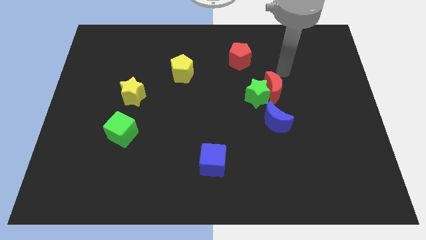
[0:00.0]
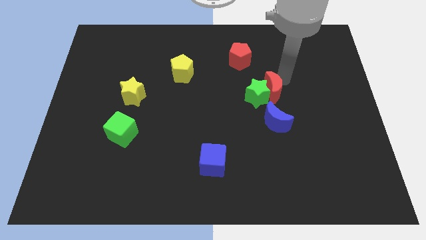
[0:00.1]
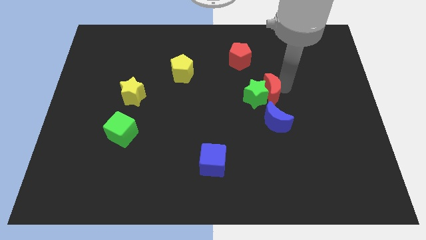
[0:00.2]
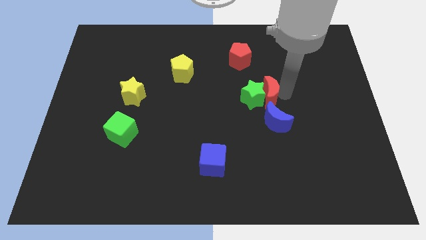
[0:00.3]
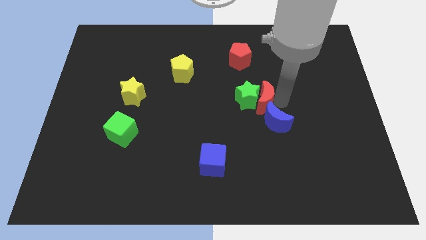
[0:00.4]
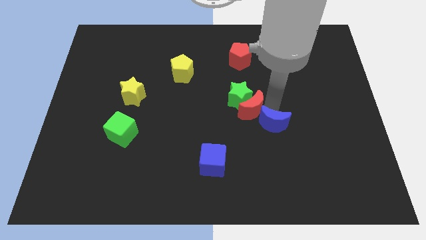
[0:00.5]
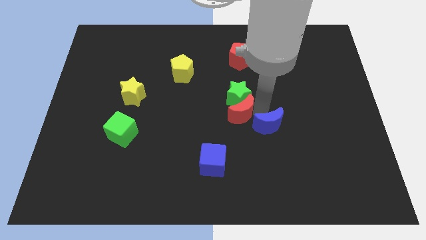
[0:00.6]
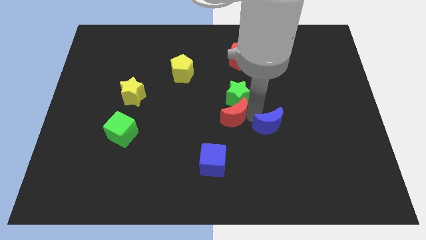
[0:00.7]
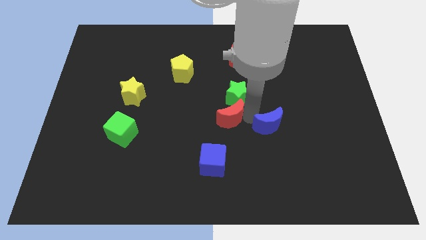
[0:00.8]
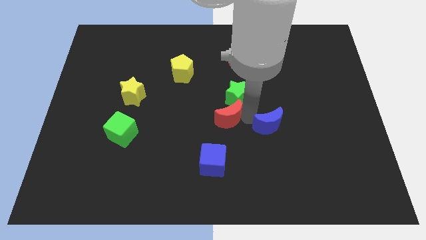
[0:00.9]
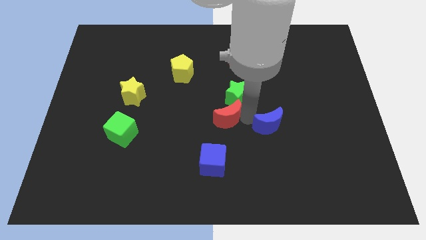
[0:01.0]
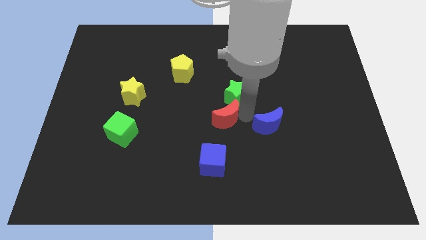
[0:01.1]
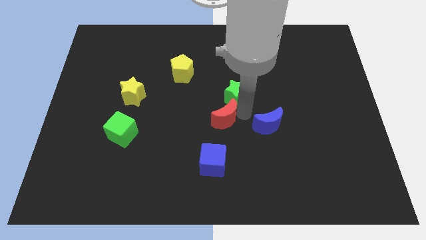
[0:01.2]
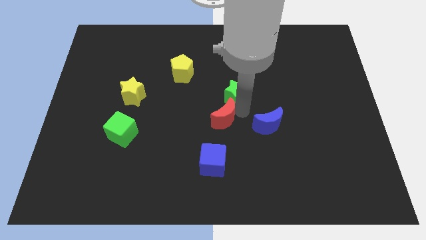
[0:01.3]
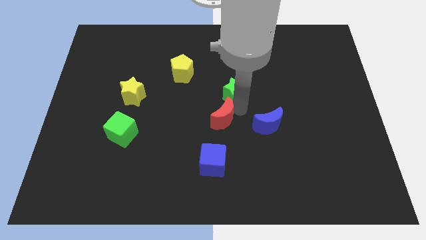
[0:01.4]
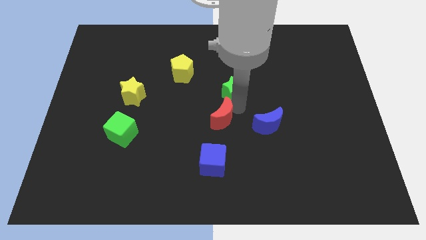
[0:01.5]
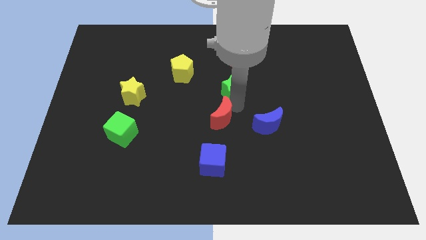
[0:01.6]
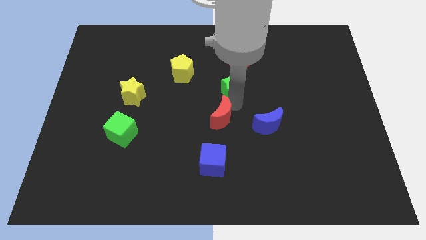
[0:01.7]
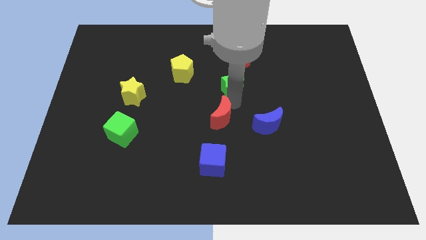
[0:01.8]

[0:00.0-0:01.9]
pull the green star apart from the red moon and blue moon

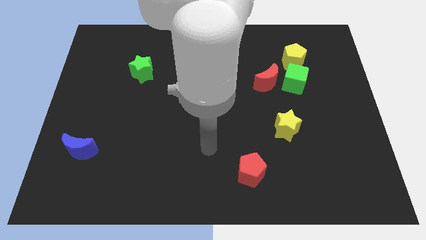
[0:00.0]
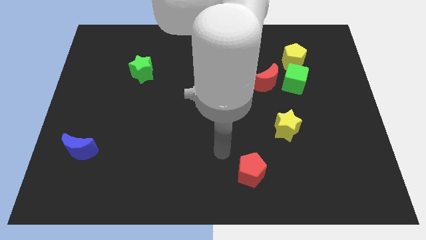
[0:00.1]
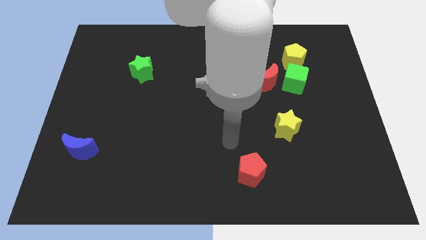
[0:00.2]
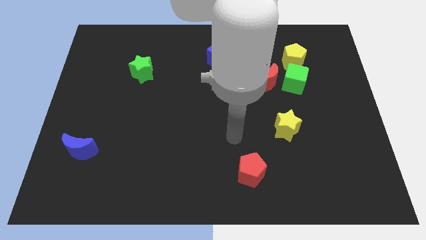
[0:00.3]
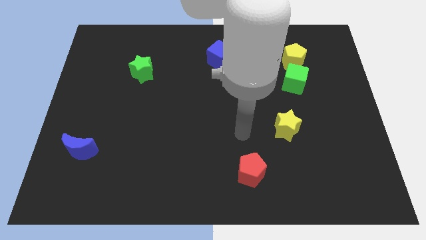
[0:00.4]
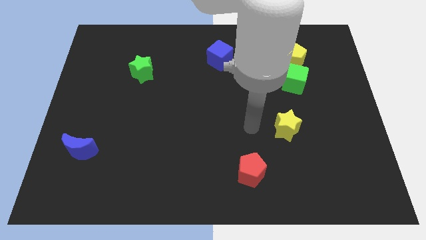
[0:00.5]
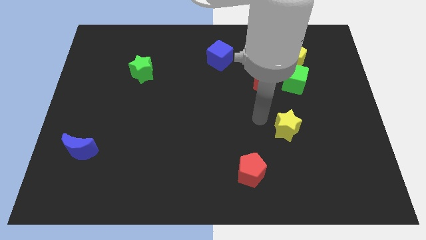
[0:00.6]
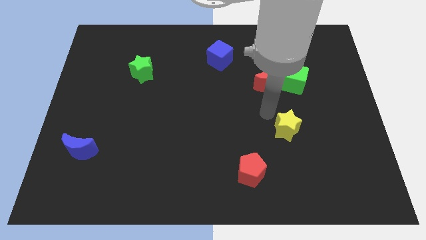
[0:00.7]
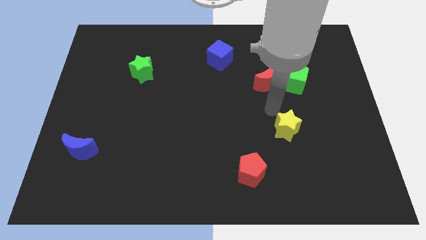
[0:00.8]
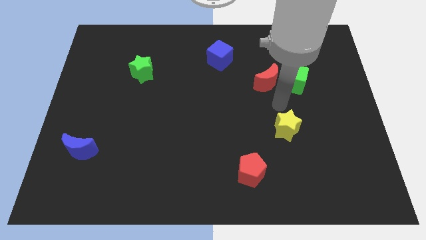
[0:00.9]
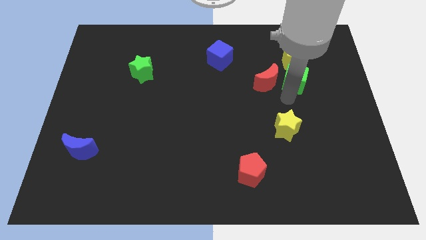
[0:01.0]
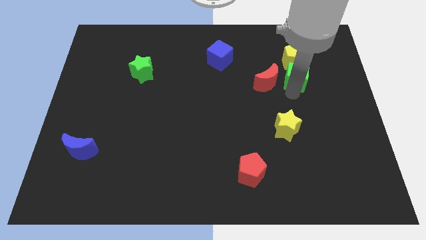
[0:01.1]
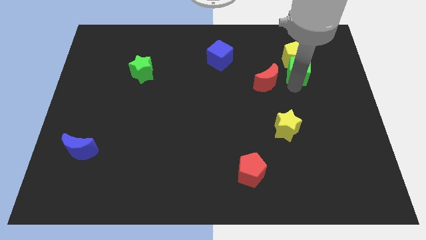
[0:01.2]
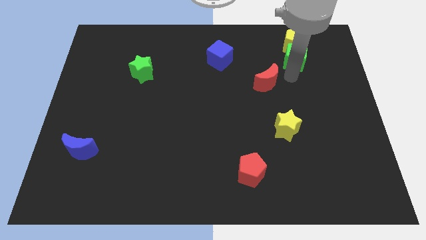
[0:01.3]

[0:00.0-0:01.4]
pull the red moon apart from the green cube

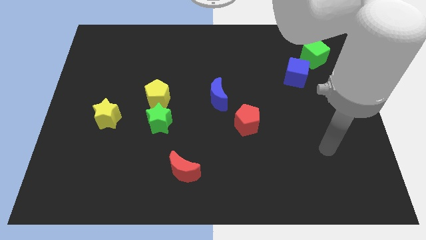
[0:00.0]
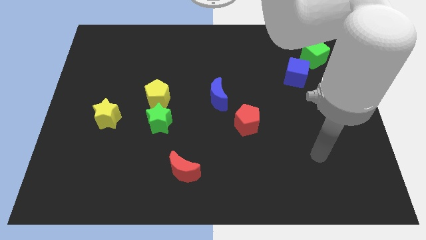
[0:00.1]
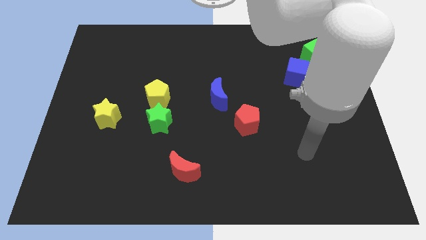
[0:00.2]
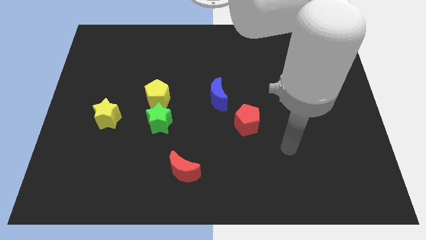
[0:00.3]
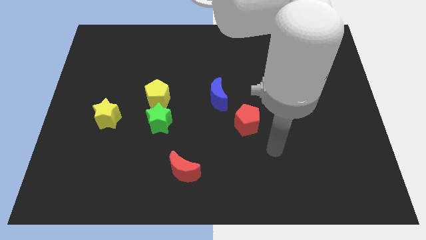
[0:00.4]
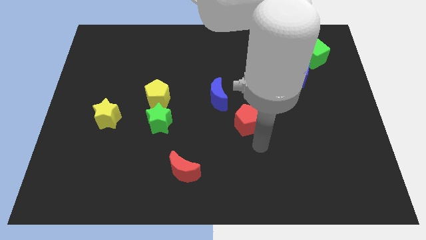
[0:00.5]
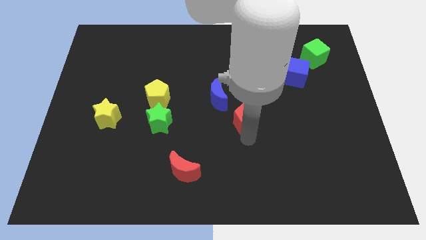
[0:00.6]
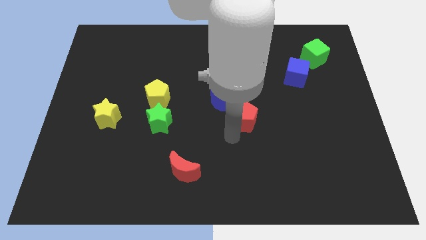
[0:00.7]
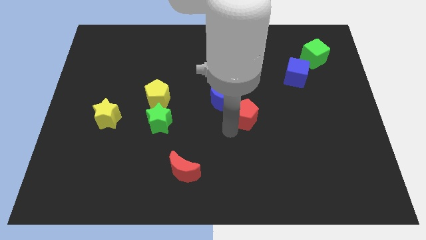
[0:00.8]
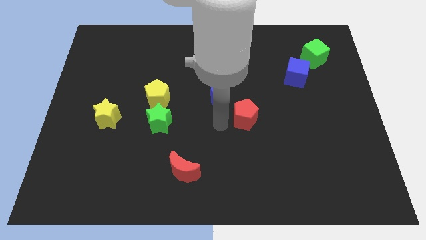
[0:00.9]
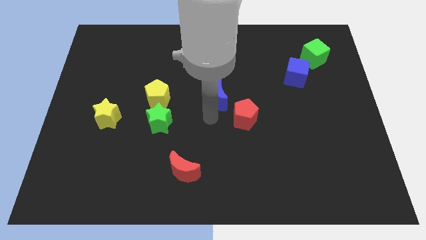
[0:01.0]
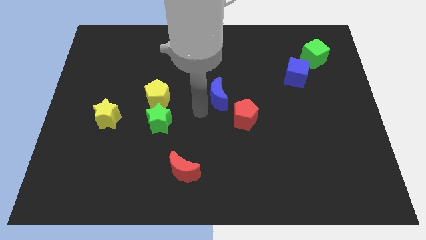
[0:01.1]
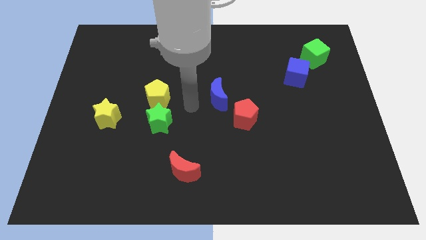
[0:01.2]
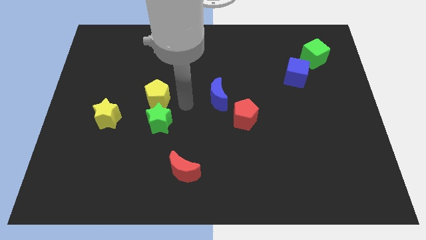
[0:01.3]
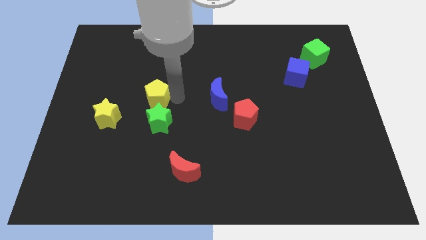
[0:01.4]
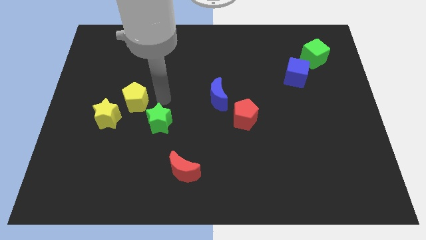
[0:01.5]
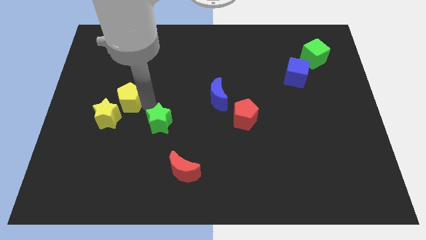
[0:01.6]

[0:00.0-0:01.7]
separate the green star from the yellow pentagon

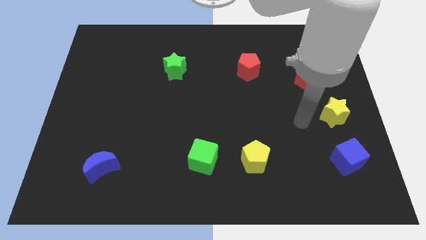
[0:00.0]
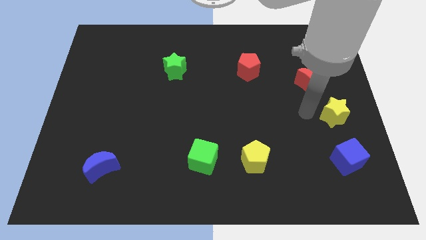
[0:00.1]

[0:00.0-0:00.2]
pull the red moon apart from the yellow star

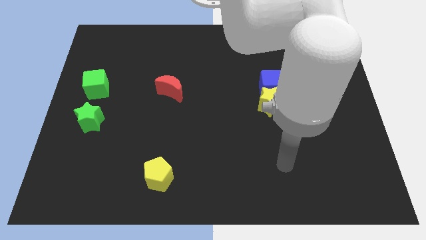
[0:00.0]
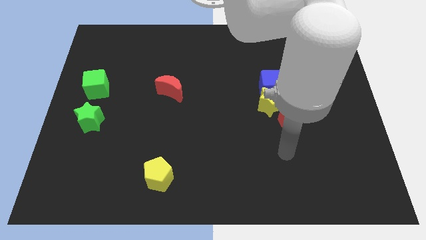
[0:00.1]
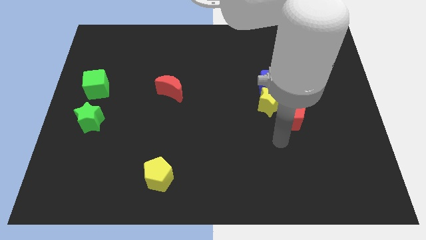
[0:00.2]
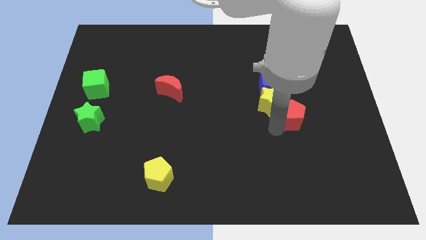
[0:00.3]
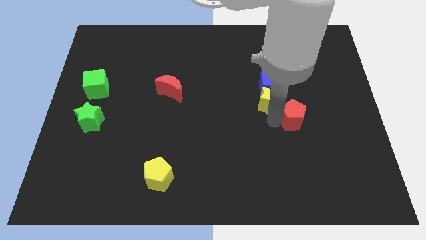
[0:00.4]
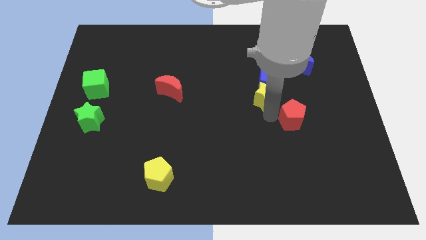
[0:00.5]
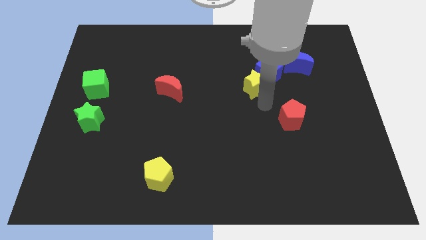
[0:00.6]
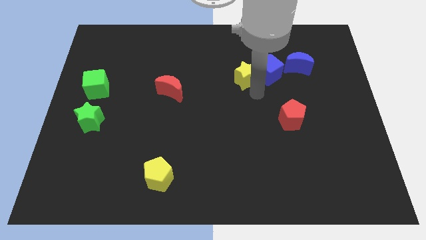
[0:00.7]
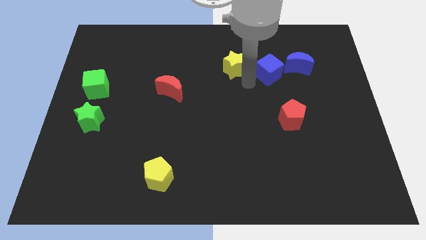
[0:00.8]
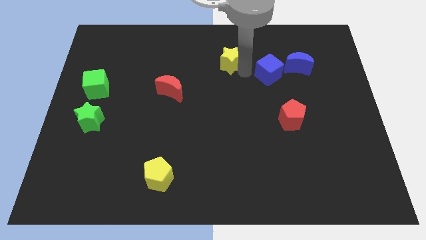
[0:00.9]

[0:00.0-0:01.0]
separate the blue cube from the yellow star

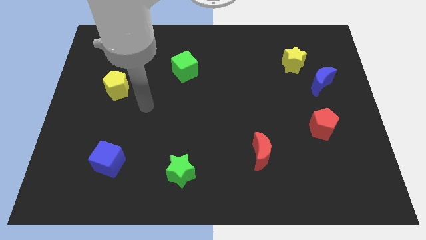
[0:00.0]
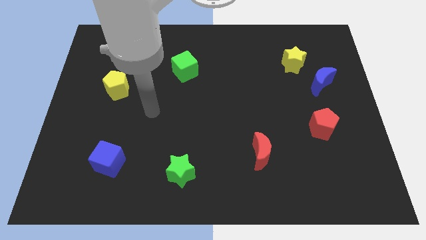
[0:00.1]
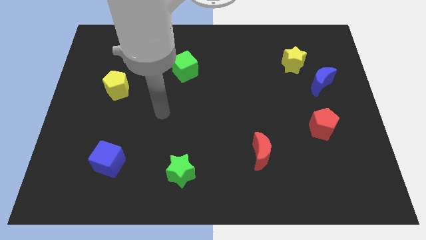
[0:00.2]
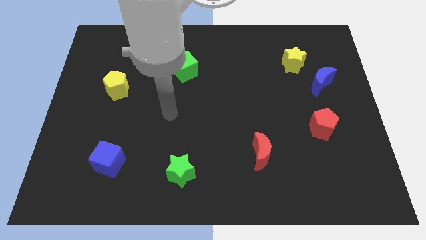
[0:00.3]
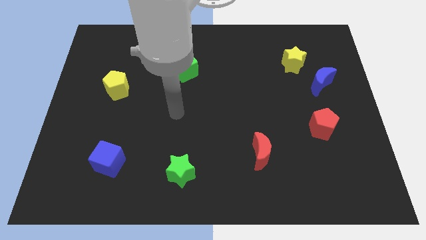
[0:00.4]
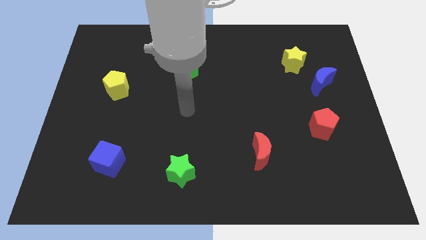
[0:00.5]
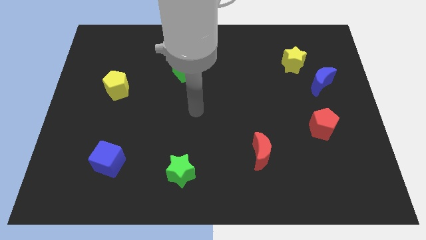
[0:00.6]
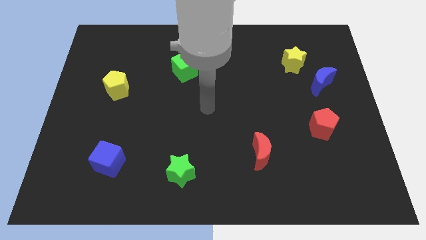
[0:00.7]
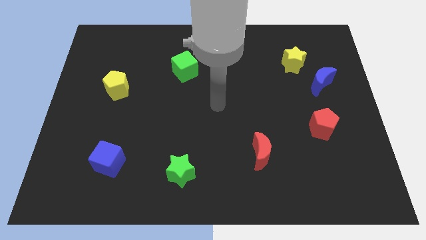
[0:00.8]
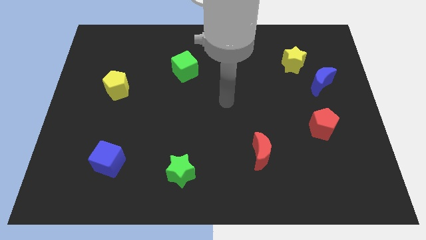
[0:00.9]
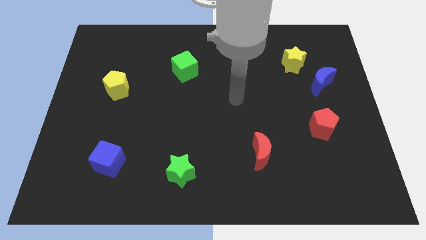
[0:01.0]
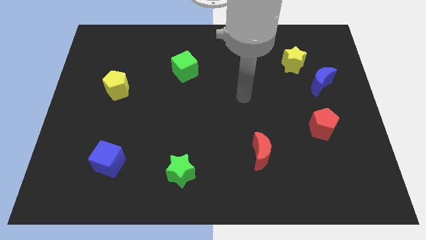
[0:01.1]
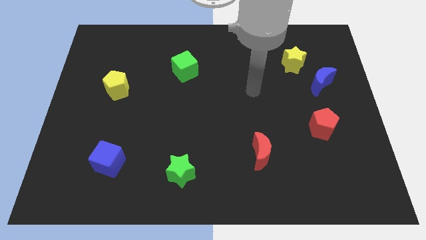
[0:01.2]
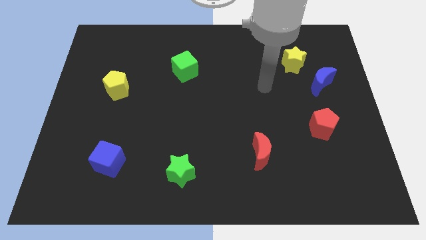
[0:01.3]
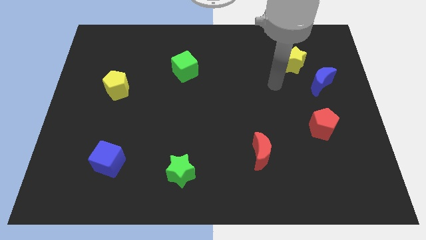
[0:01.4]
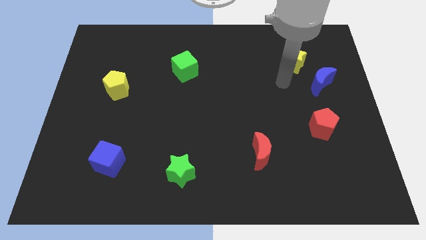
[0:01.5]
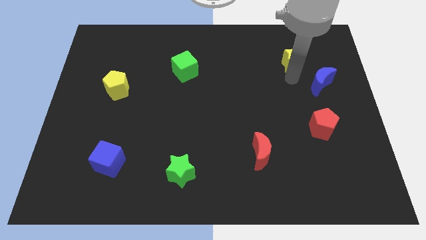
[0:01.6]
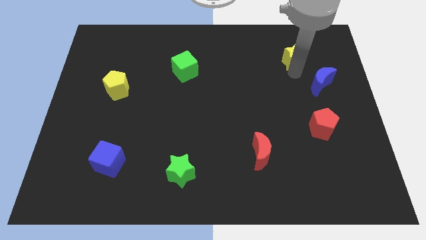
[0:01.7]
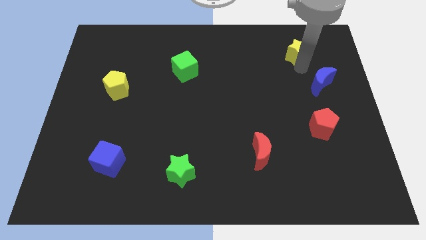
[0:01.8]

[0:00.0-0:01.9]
move the blue moon away from the yellow star

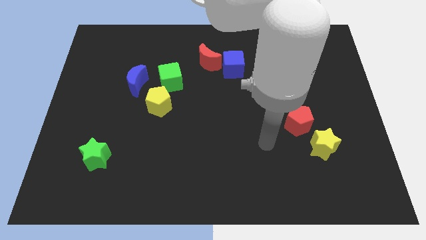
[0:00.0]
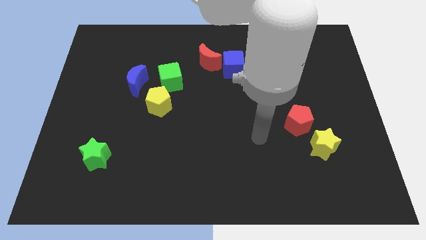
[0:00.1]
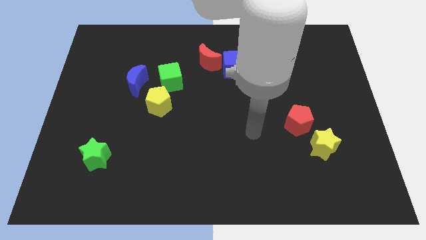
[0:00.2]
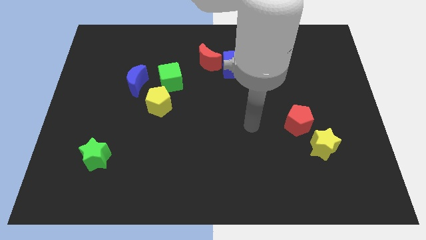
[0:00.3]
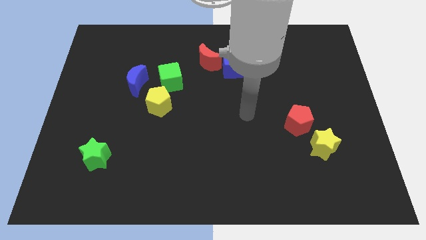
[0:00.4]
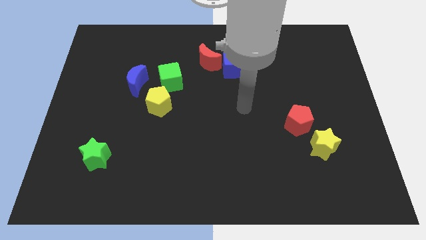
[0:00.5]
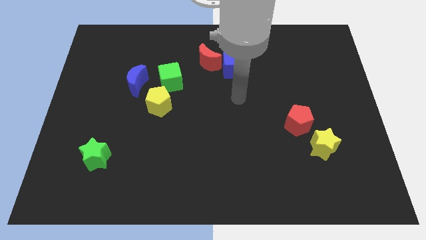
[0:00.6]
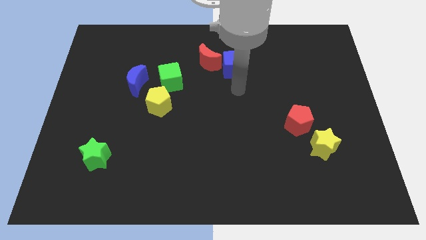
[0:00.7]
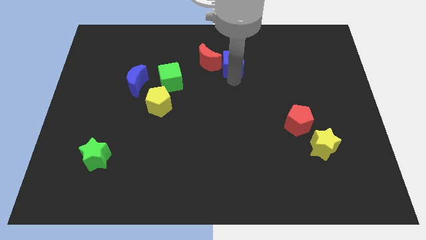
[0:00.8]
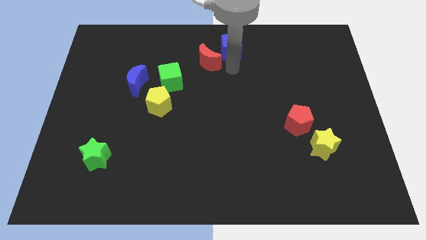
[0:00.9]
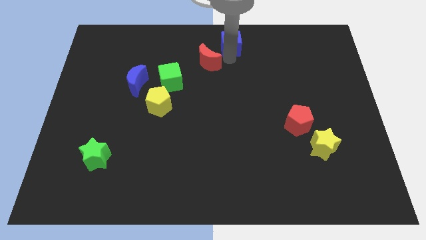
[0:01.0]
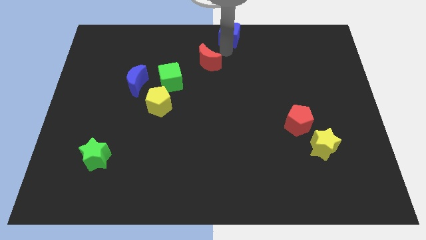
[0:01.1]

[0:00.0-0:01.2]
move the red moon away from the blue cube
